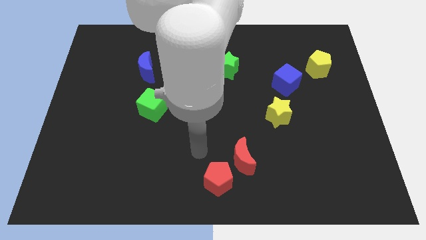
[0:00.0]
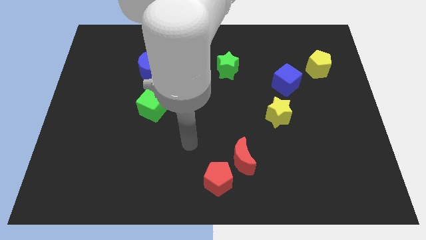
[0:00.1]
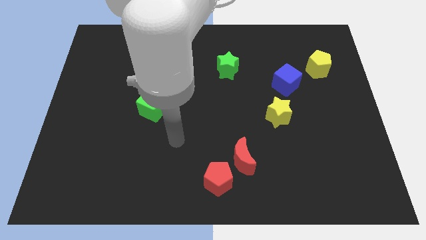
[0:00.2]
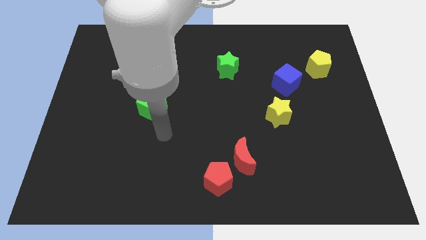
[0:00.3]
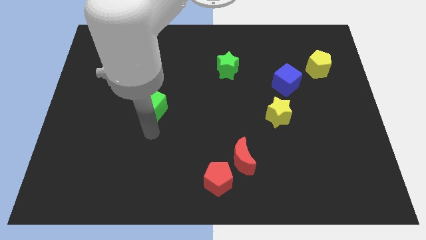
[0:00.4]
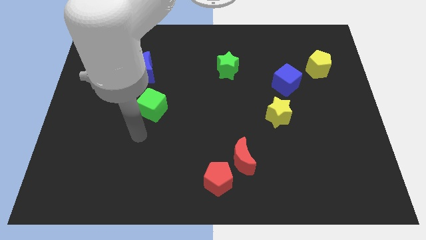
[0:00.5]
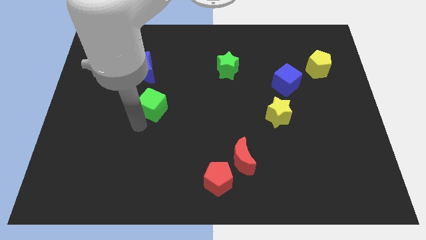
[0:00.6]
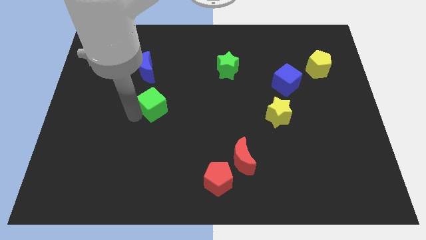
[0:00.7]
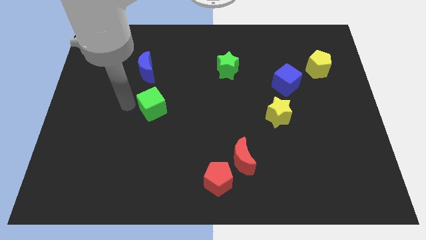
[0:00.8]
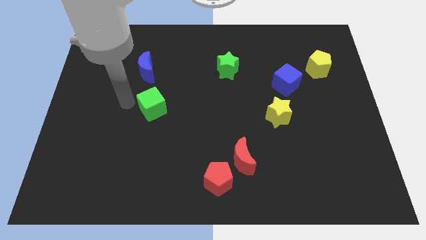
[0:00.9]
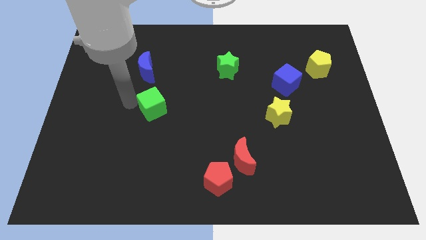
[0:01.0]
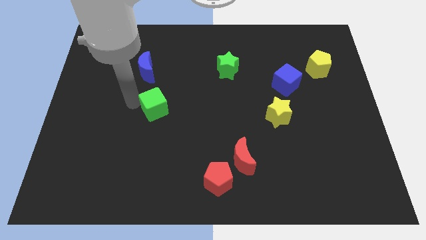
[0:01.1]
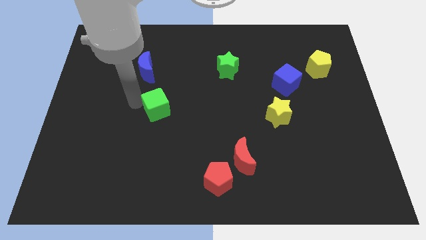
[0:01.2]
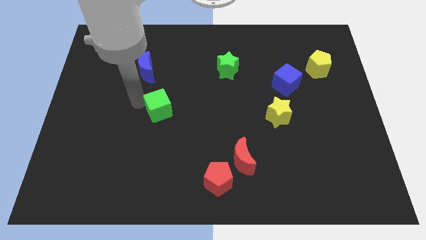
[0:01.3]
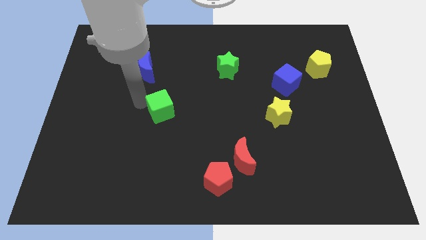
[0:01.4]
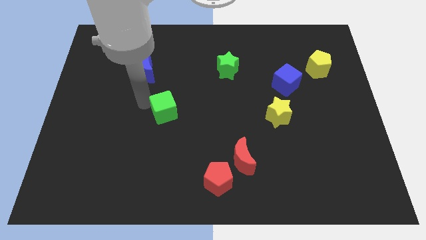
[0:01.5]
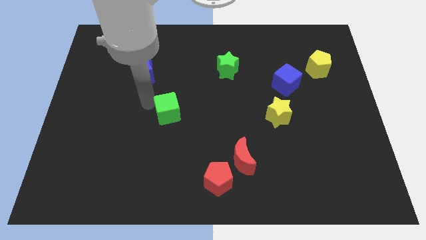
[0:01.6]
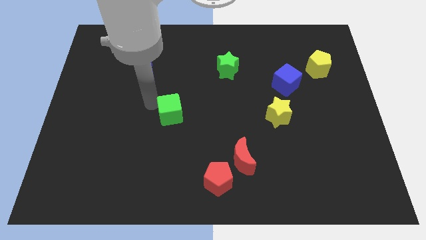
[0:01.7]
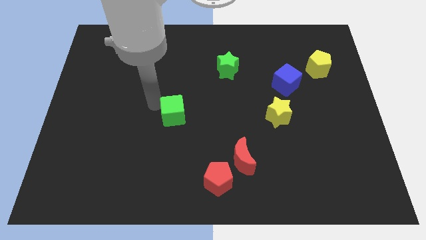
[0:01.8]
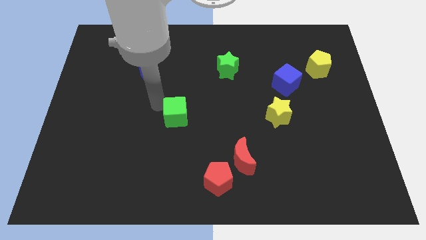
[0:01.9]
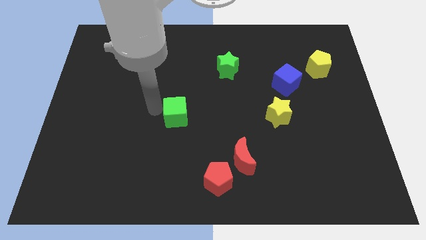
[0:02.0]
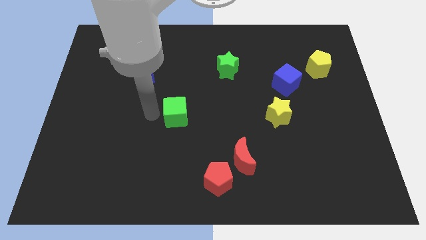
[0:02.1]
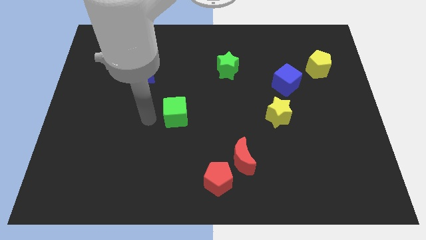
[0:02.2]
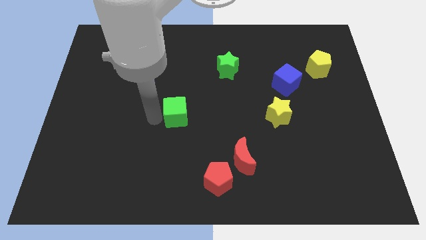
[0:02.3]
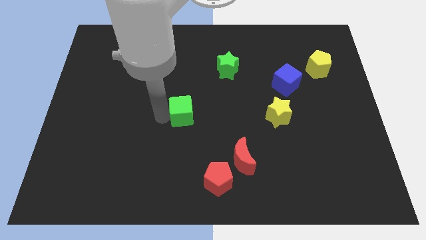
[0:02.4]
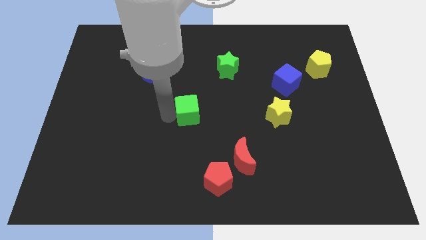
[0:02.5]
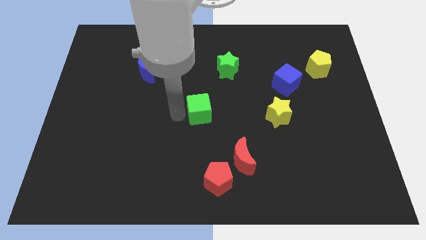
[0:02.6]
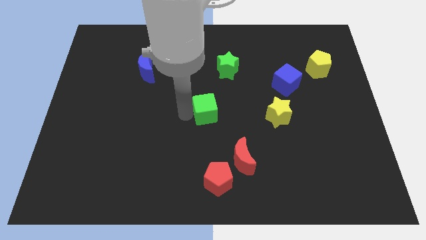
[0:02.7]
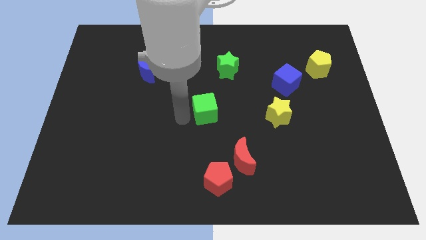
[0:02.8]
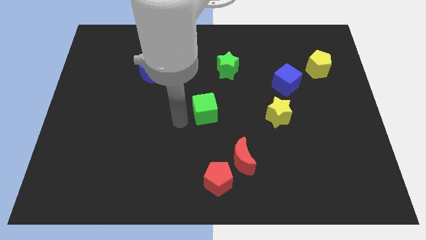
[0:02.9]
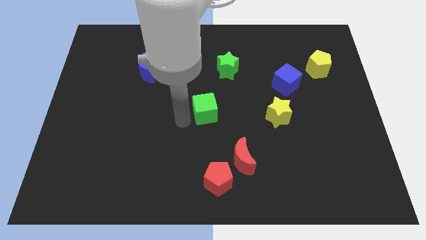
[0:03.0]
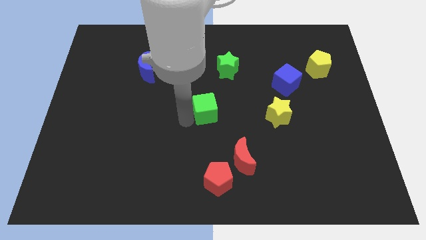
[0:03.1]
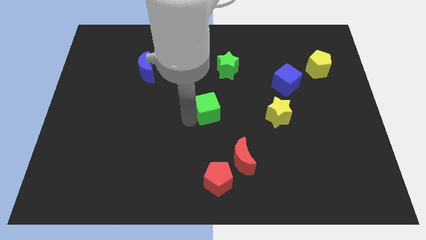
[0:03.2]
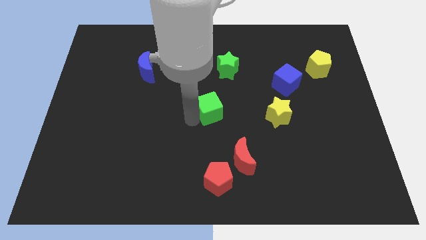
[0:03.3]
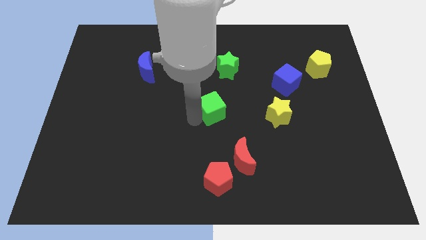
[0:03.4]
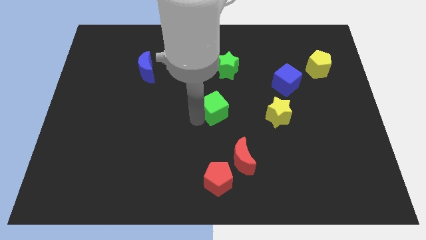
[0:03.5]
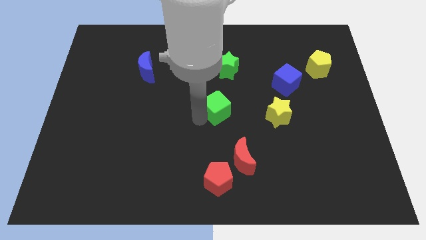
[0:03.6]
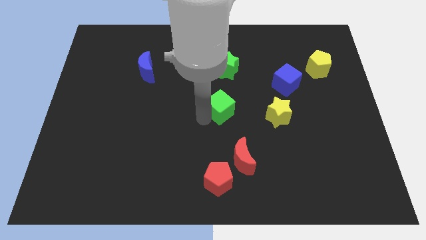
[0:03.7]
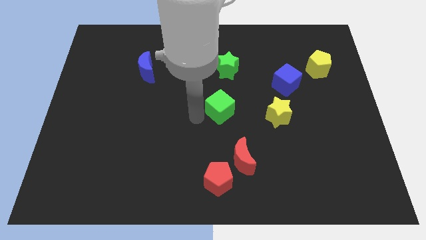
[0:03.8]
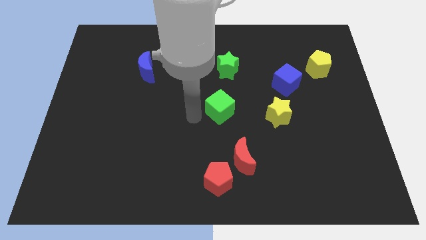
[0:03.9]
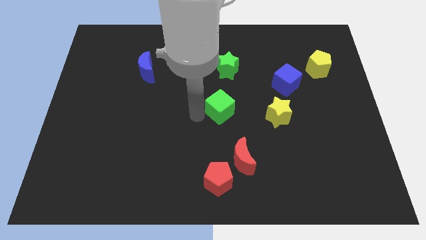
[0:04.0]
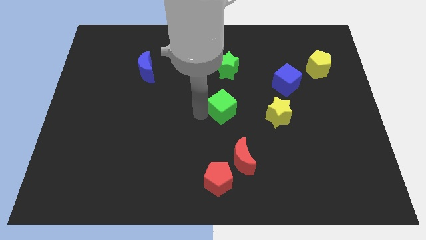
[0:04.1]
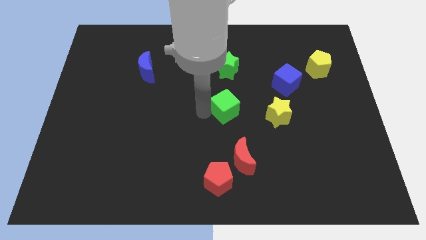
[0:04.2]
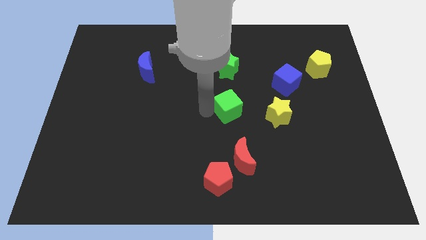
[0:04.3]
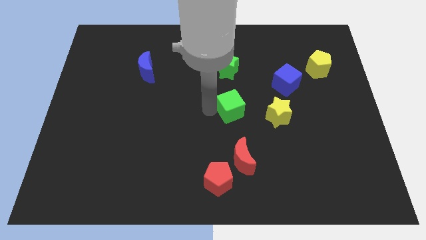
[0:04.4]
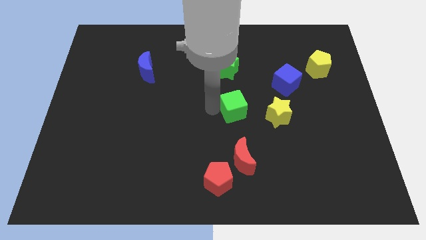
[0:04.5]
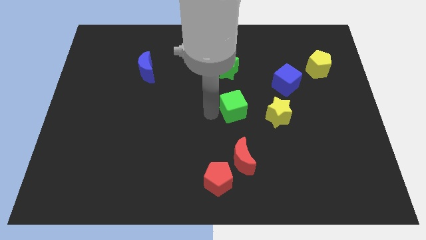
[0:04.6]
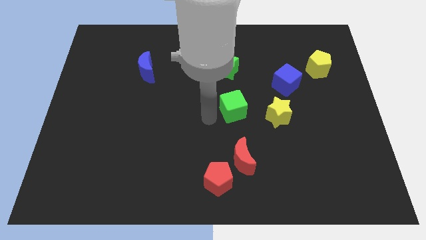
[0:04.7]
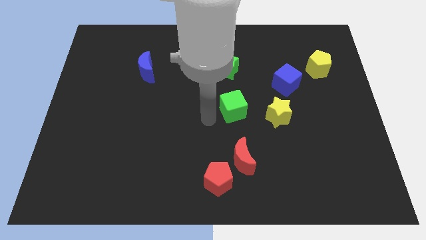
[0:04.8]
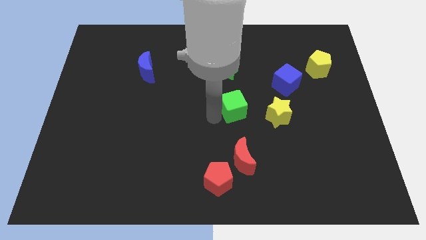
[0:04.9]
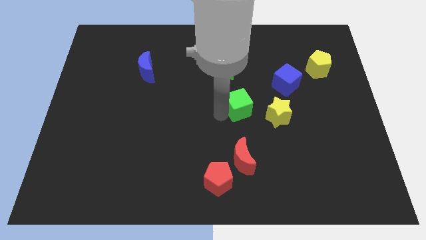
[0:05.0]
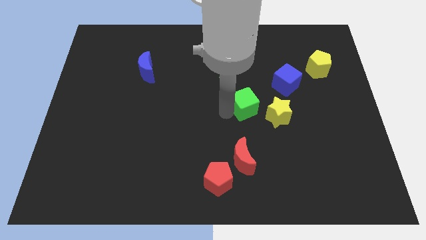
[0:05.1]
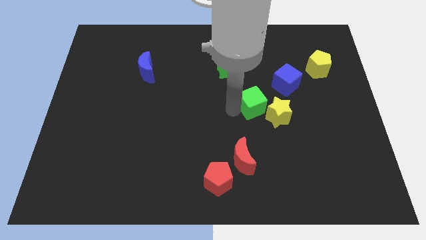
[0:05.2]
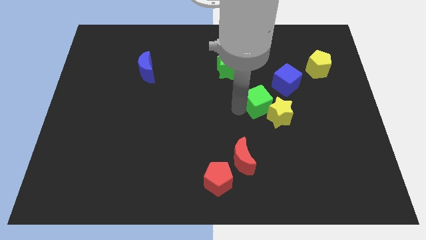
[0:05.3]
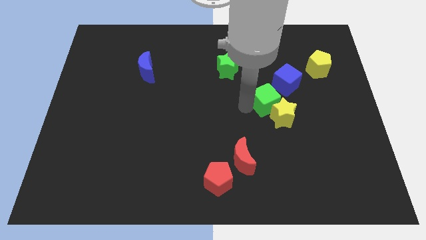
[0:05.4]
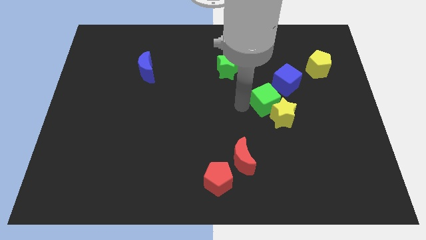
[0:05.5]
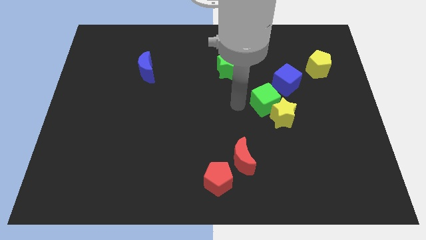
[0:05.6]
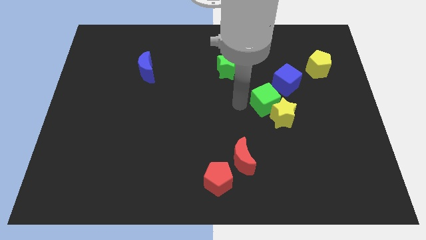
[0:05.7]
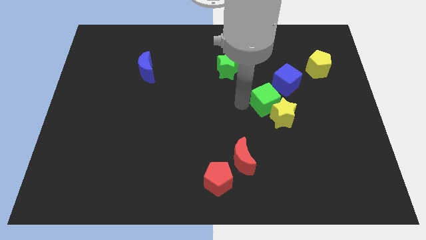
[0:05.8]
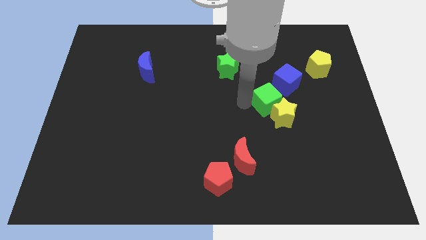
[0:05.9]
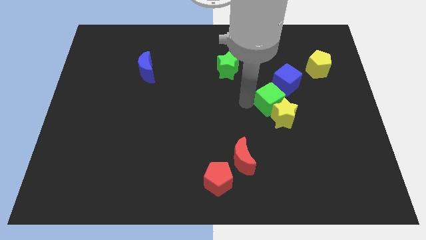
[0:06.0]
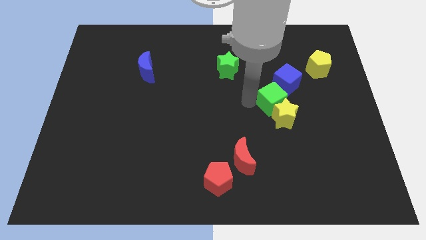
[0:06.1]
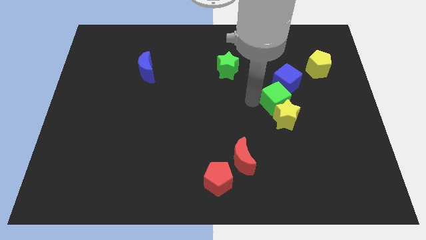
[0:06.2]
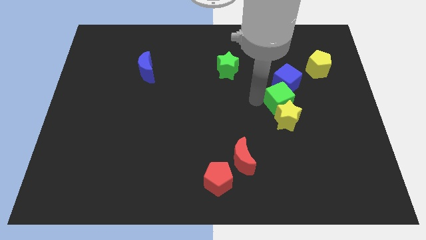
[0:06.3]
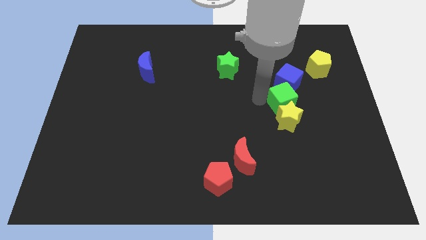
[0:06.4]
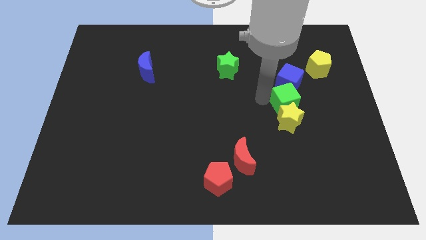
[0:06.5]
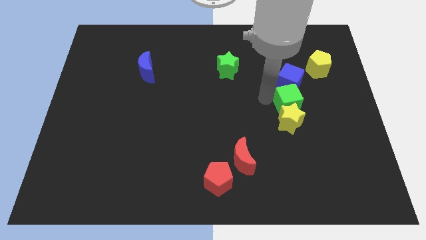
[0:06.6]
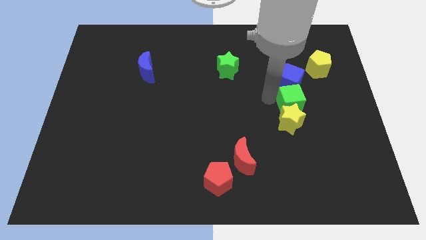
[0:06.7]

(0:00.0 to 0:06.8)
push the green cube to the bottom right of the blue cube
